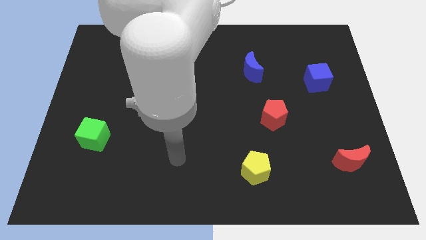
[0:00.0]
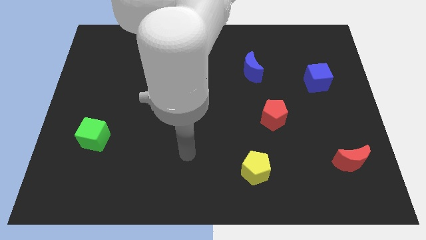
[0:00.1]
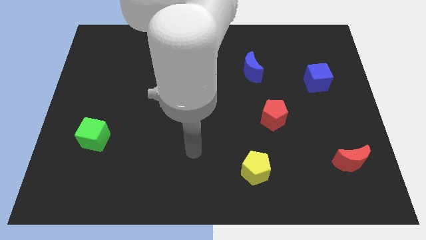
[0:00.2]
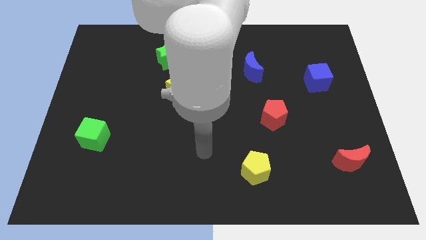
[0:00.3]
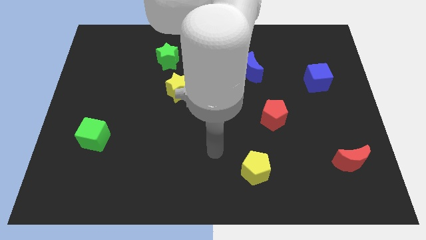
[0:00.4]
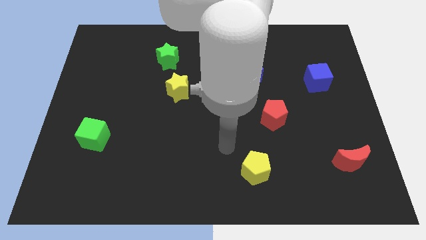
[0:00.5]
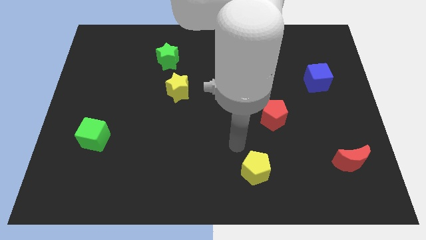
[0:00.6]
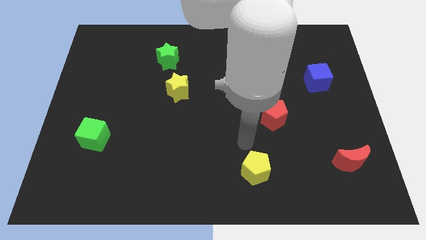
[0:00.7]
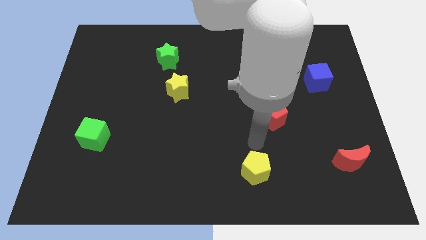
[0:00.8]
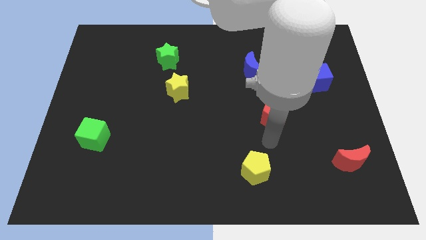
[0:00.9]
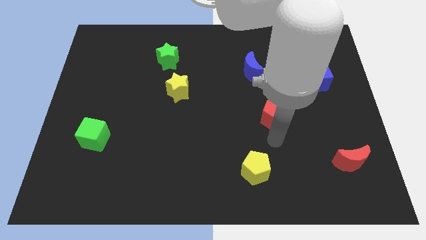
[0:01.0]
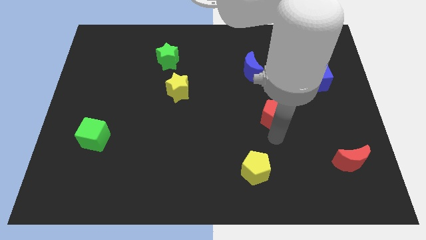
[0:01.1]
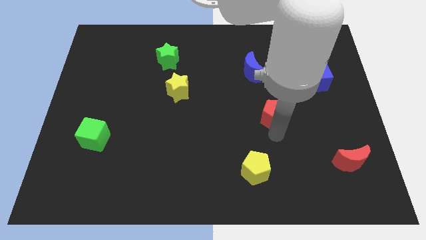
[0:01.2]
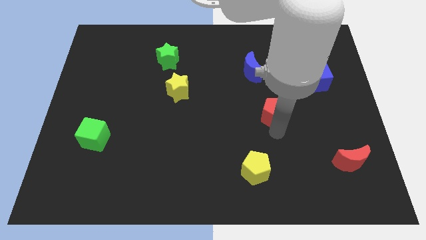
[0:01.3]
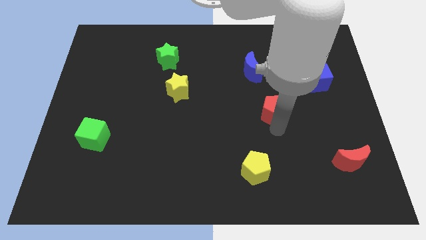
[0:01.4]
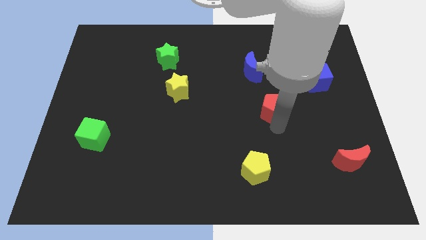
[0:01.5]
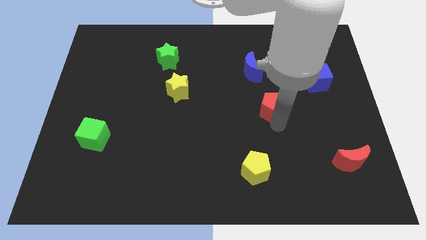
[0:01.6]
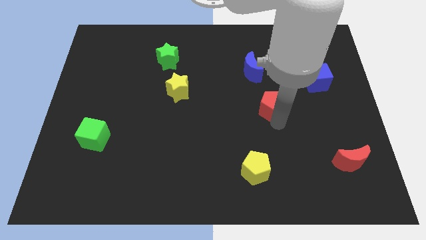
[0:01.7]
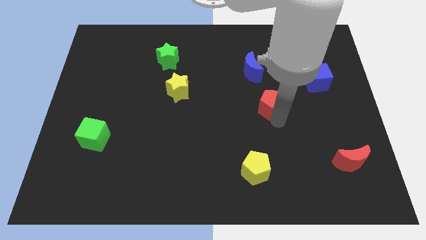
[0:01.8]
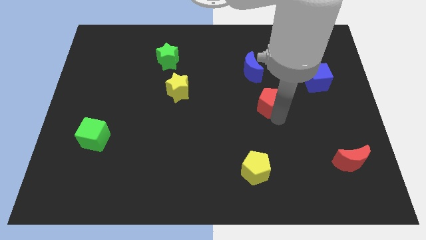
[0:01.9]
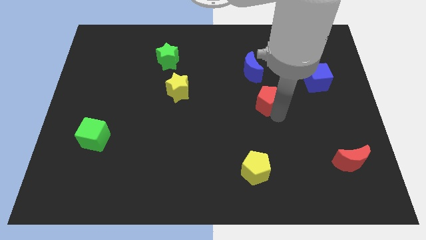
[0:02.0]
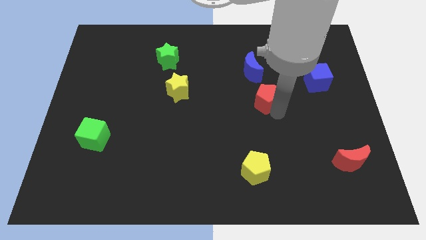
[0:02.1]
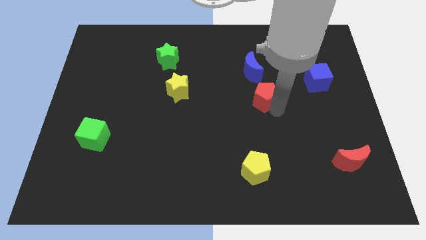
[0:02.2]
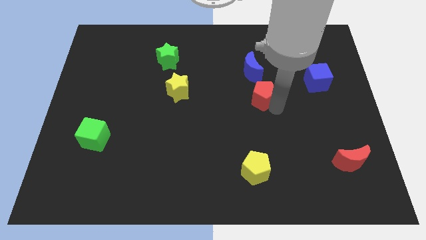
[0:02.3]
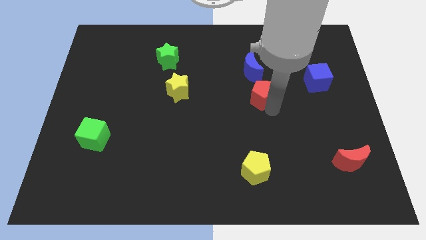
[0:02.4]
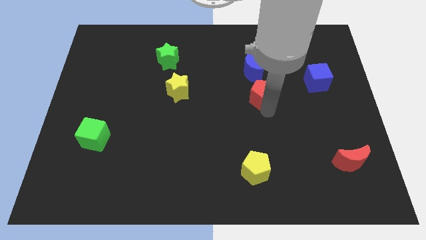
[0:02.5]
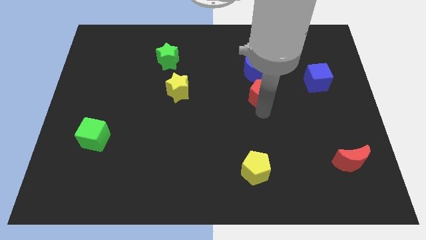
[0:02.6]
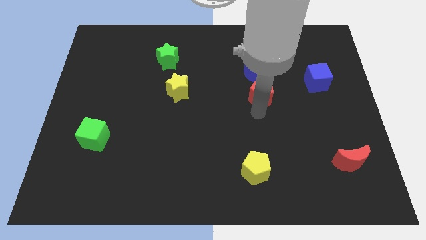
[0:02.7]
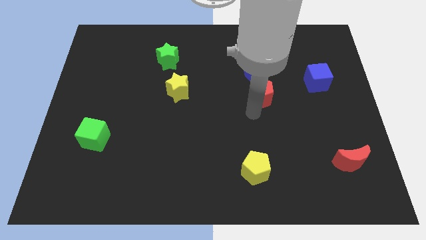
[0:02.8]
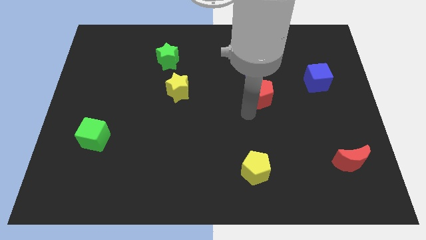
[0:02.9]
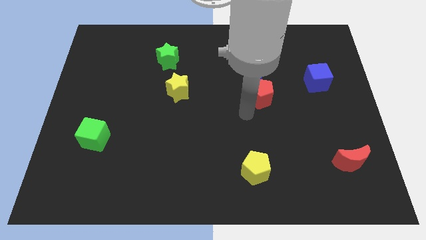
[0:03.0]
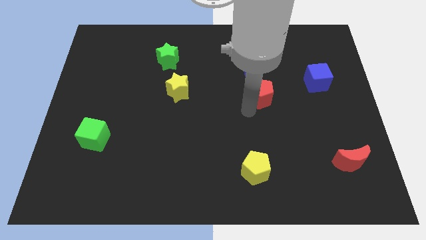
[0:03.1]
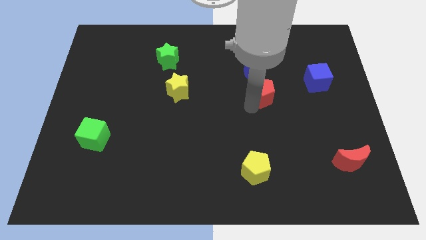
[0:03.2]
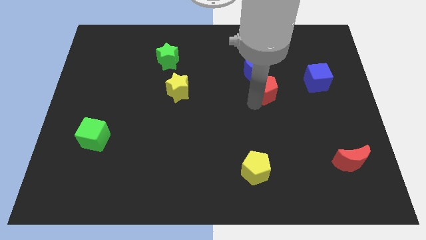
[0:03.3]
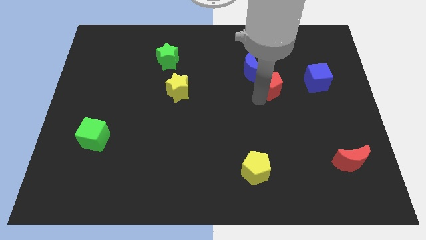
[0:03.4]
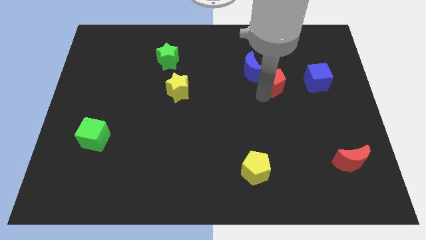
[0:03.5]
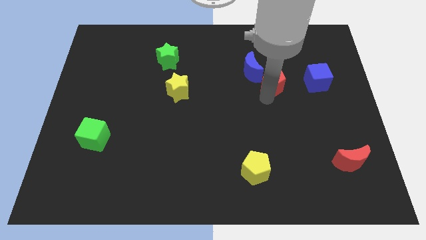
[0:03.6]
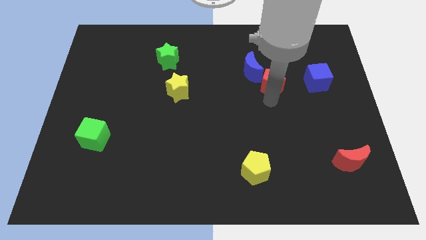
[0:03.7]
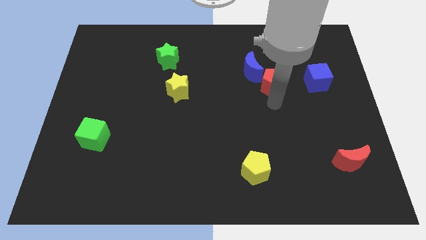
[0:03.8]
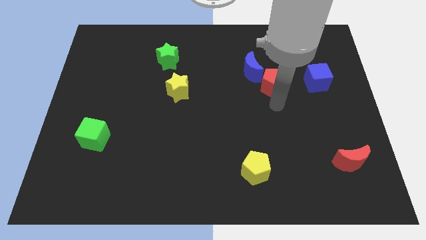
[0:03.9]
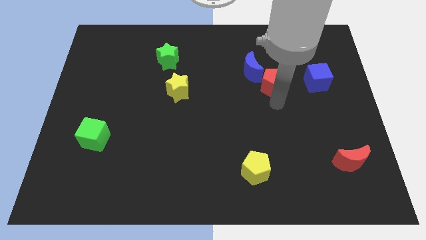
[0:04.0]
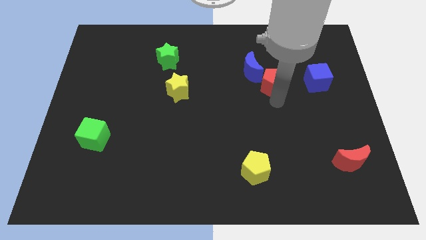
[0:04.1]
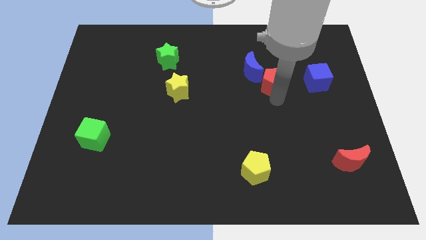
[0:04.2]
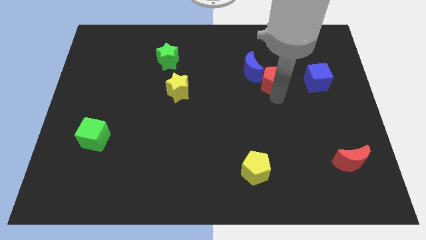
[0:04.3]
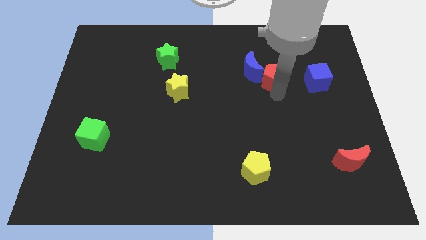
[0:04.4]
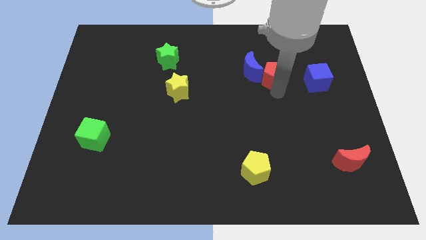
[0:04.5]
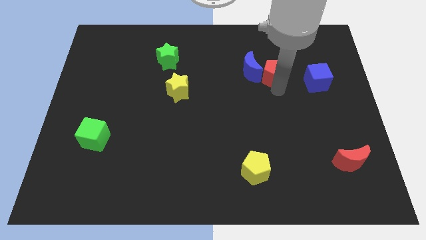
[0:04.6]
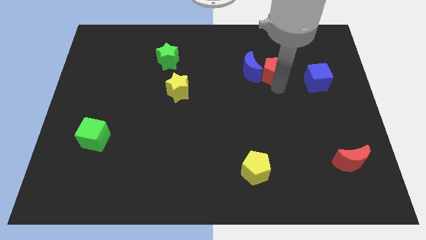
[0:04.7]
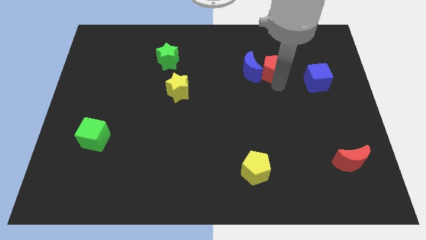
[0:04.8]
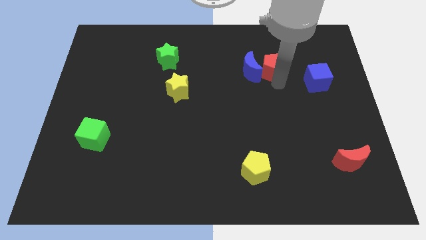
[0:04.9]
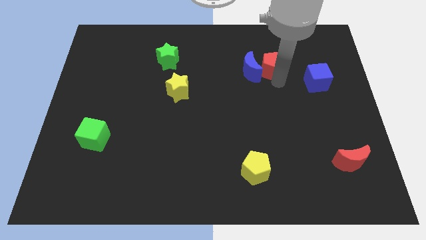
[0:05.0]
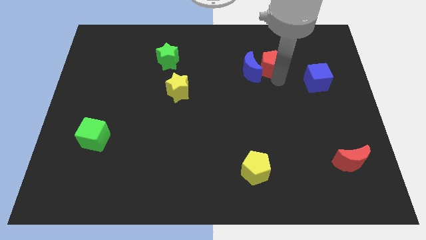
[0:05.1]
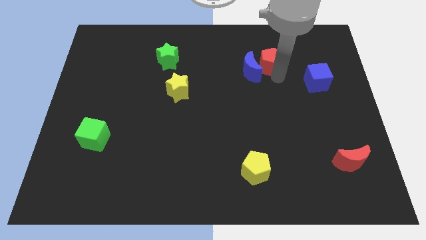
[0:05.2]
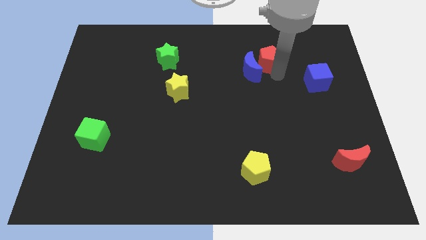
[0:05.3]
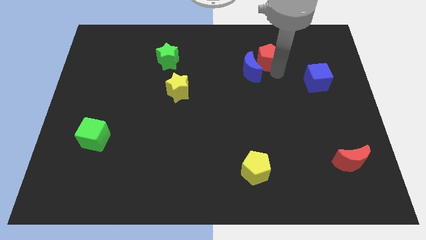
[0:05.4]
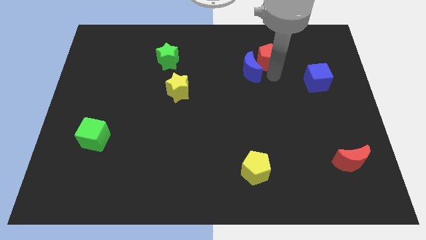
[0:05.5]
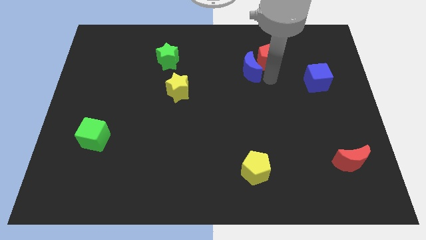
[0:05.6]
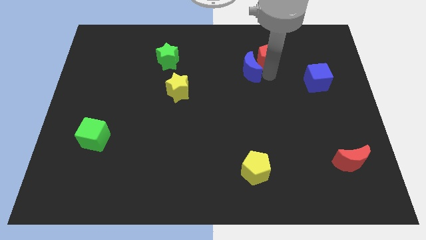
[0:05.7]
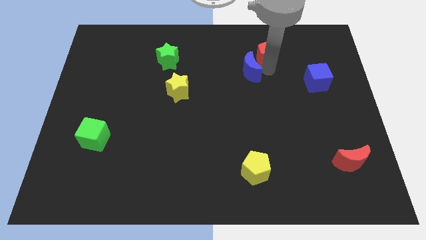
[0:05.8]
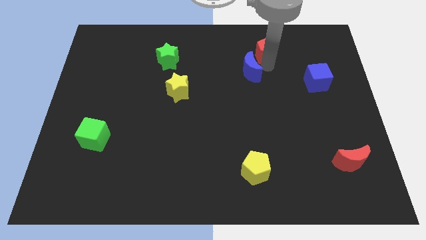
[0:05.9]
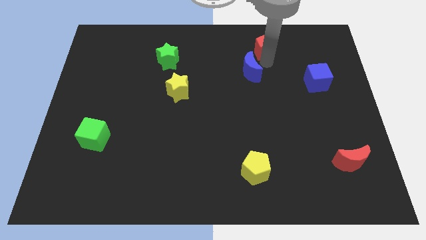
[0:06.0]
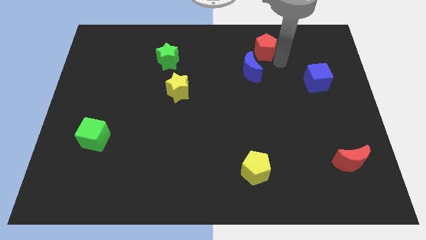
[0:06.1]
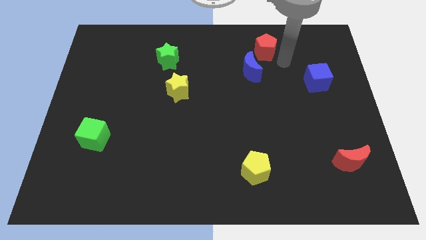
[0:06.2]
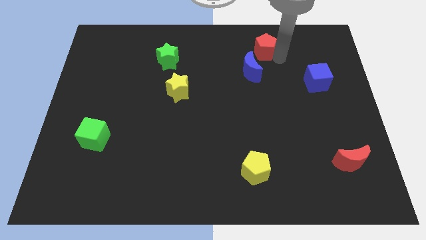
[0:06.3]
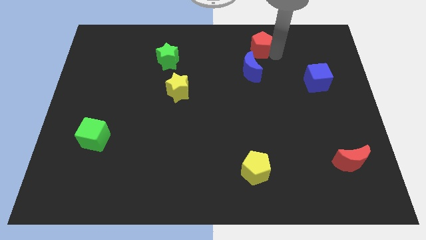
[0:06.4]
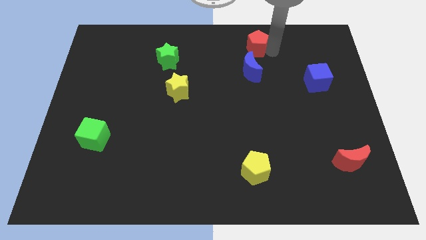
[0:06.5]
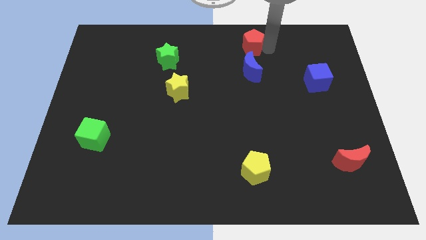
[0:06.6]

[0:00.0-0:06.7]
move the red pentagon to the top

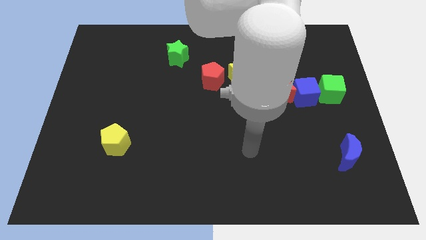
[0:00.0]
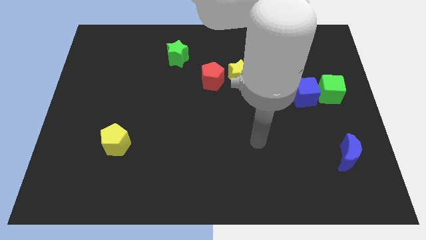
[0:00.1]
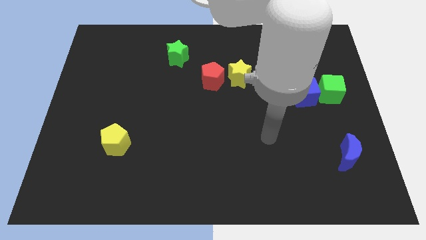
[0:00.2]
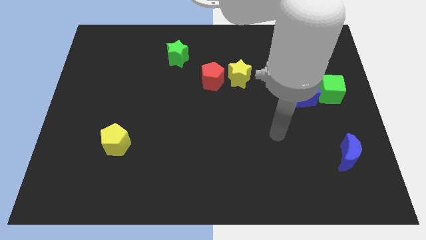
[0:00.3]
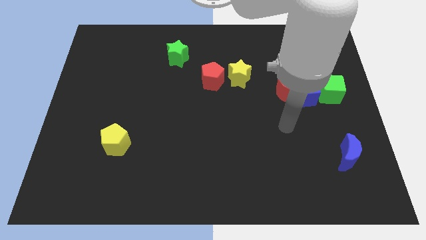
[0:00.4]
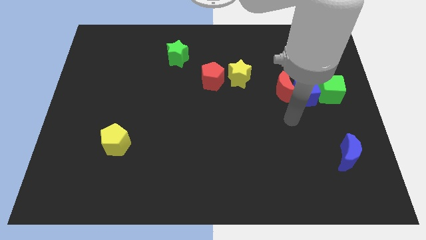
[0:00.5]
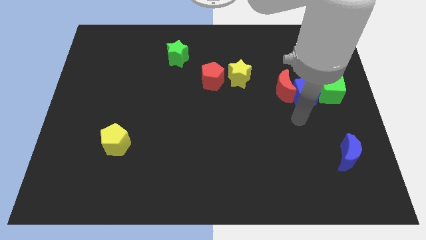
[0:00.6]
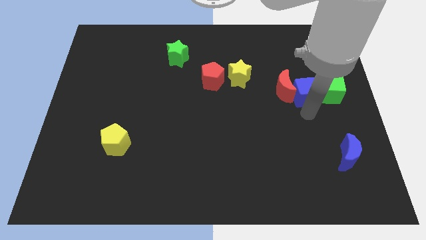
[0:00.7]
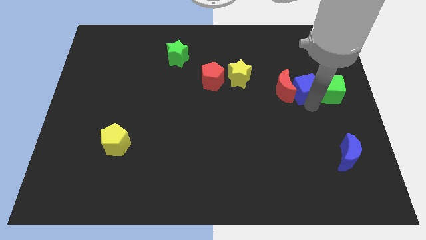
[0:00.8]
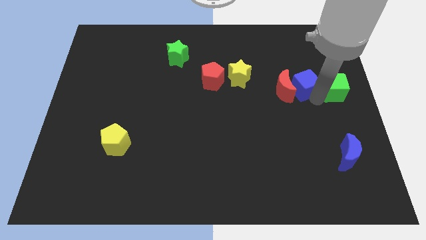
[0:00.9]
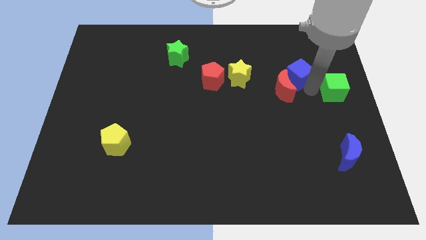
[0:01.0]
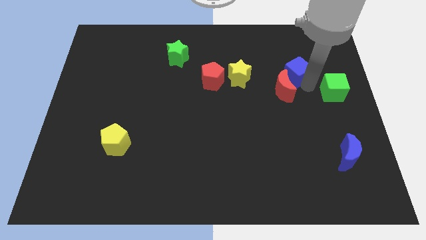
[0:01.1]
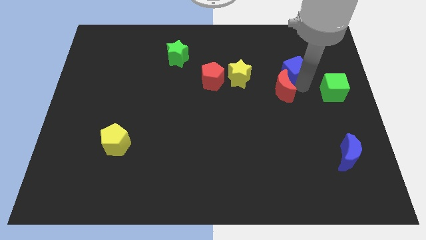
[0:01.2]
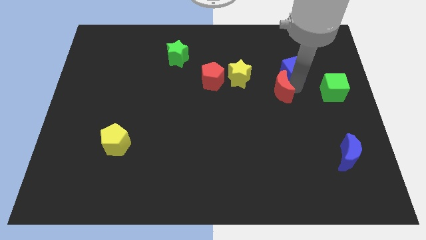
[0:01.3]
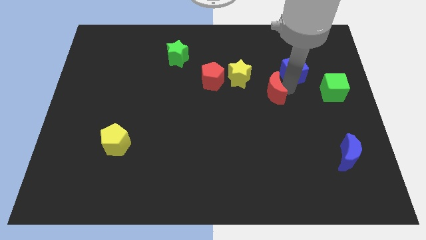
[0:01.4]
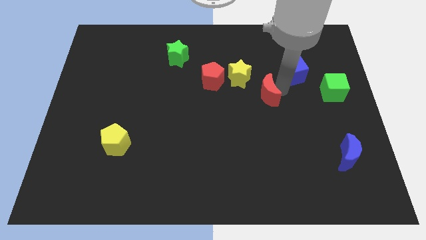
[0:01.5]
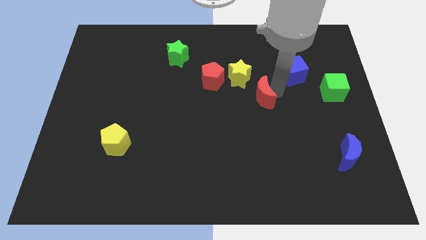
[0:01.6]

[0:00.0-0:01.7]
move the red moon to the center of the board
